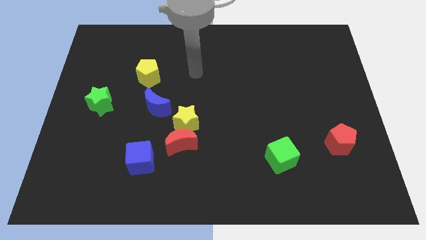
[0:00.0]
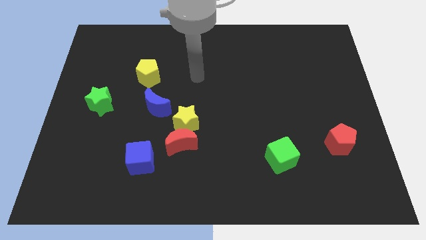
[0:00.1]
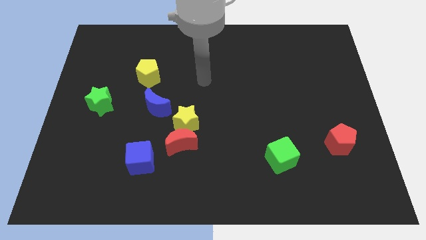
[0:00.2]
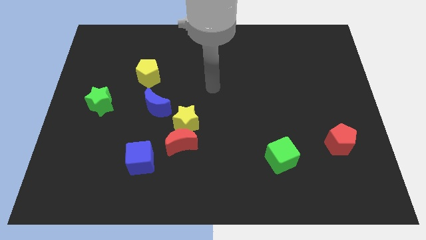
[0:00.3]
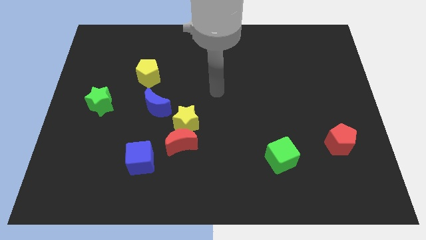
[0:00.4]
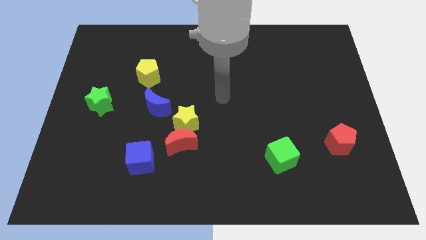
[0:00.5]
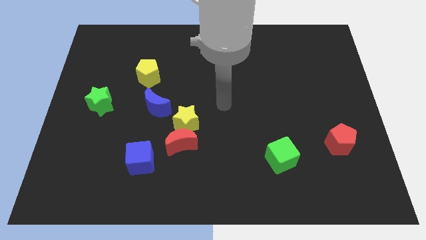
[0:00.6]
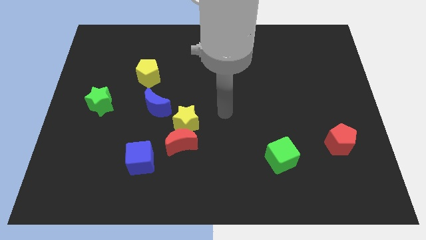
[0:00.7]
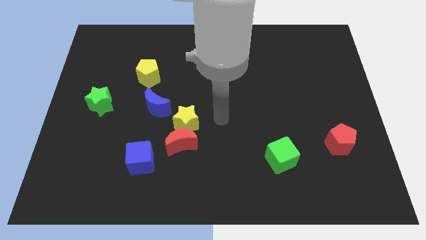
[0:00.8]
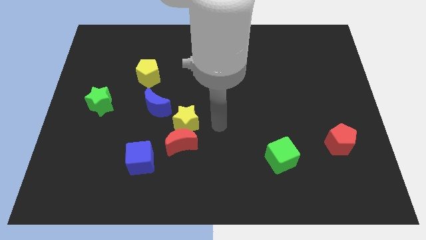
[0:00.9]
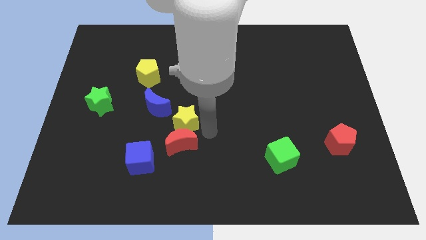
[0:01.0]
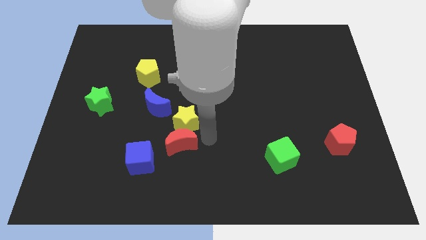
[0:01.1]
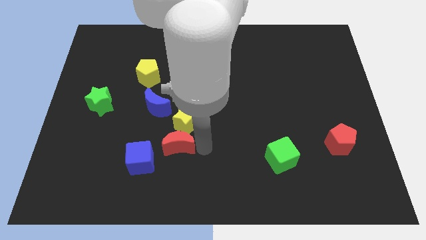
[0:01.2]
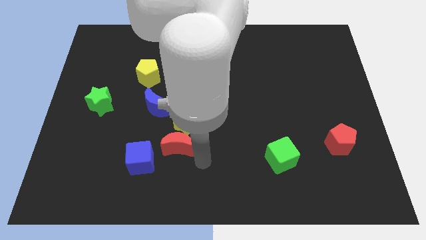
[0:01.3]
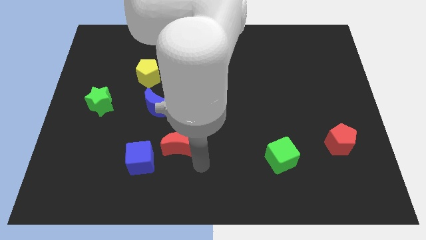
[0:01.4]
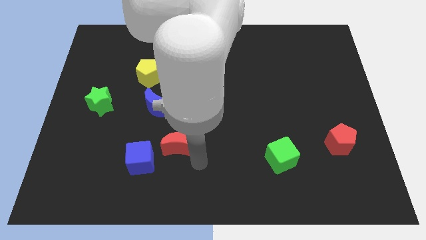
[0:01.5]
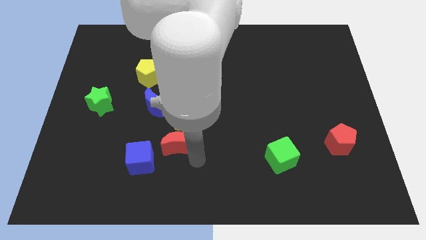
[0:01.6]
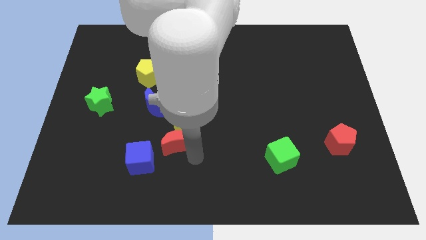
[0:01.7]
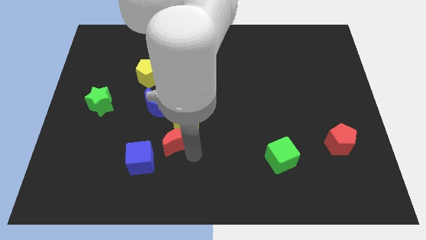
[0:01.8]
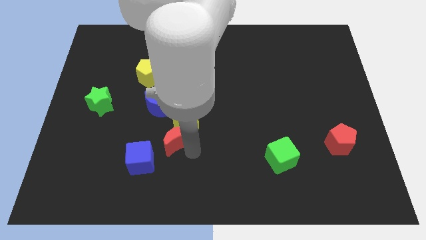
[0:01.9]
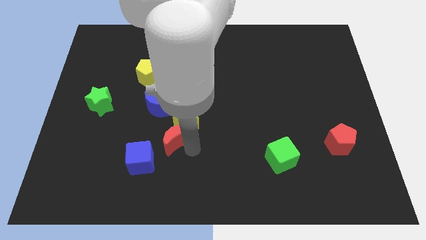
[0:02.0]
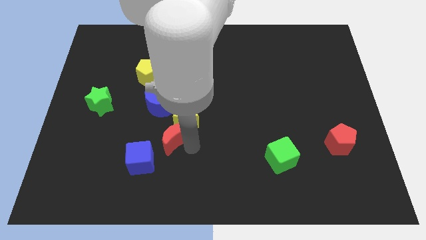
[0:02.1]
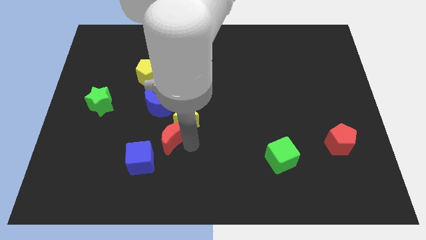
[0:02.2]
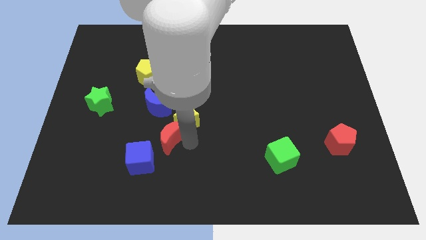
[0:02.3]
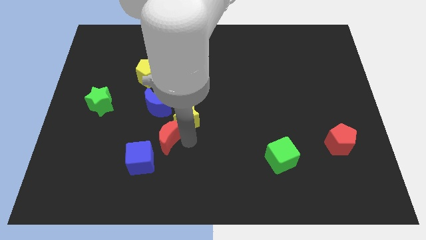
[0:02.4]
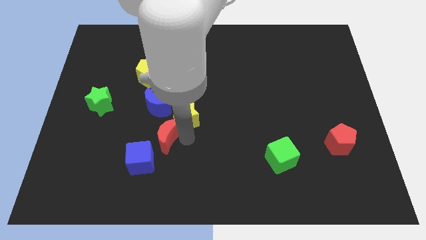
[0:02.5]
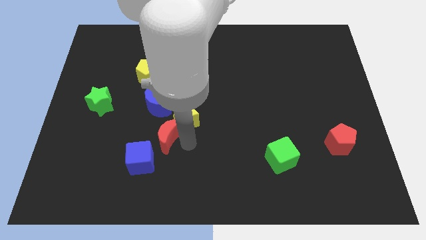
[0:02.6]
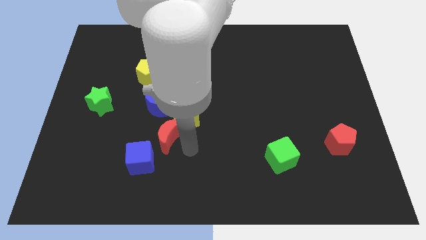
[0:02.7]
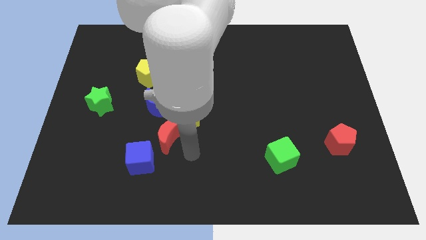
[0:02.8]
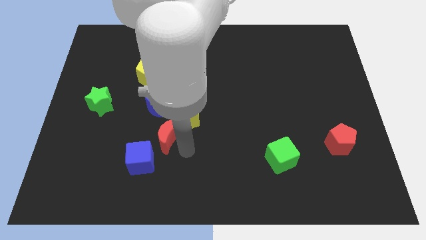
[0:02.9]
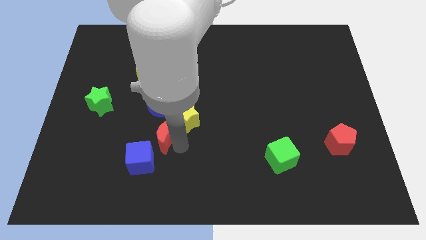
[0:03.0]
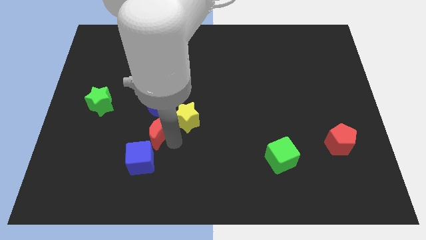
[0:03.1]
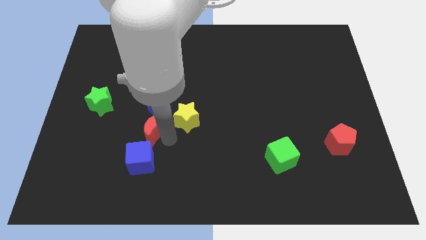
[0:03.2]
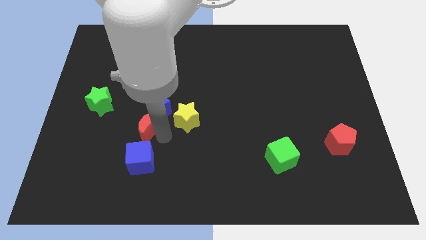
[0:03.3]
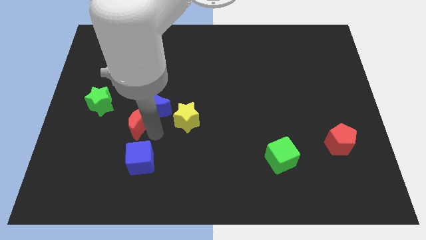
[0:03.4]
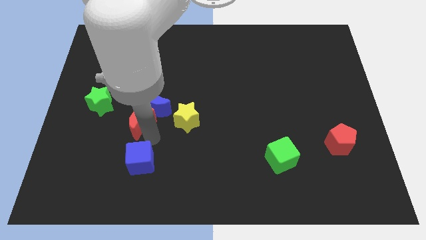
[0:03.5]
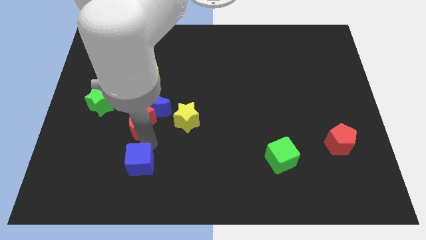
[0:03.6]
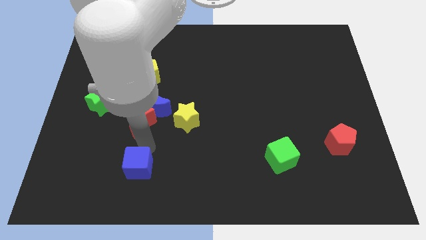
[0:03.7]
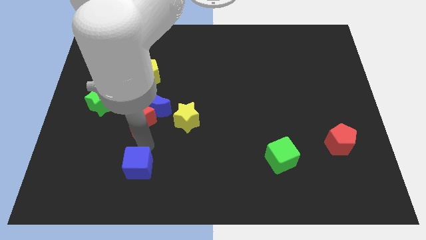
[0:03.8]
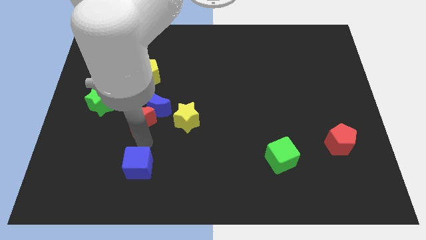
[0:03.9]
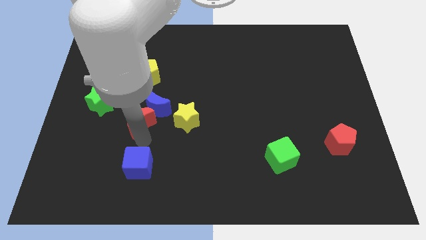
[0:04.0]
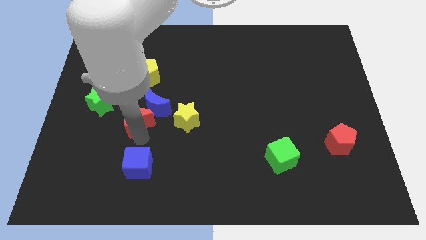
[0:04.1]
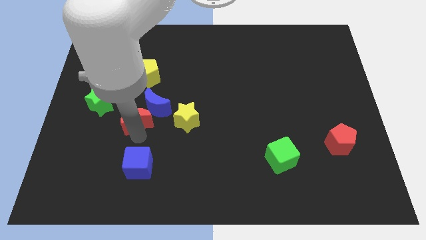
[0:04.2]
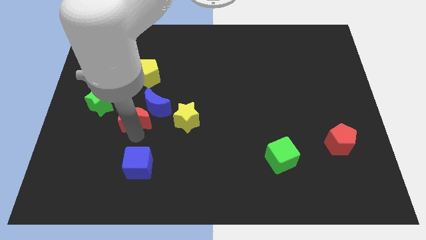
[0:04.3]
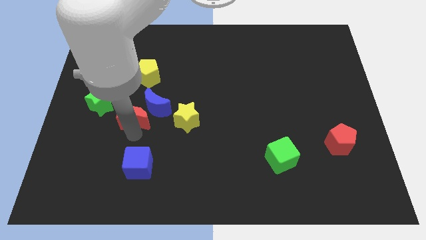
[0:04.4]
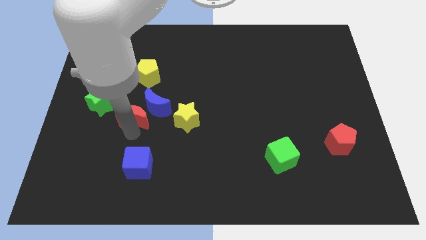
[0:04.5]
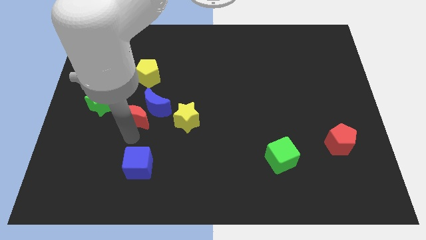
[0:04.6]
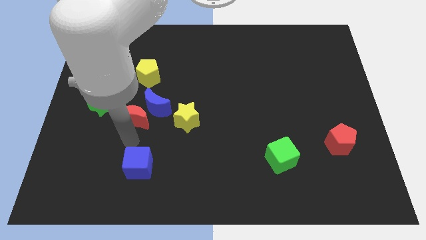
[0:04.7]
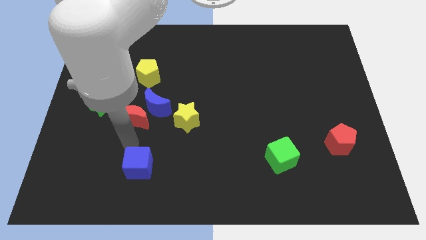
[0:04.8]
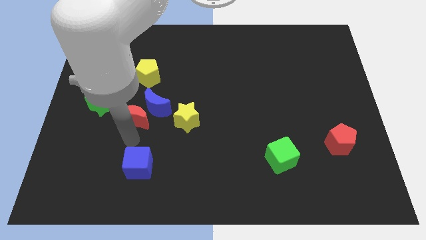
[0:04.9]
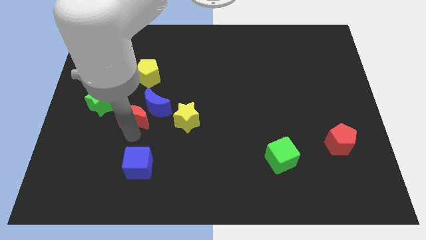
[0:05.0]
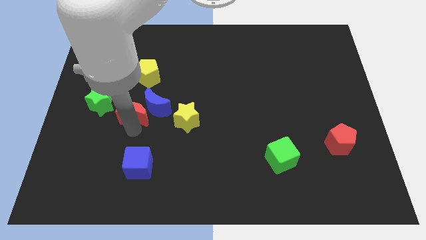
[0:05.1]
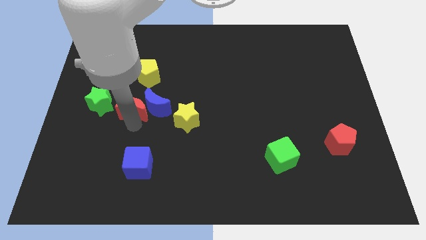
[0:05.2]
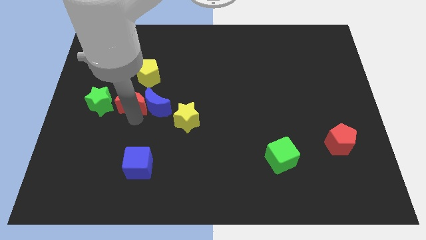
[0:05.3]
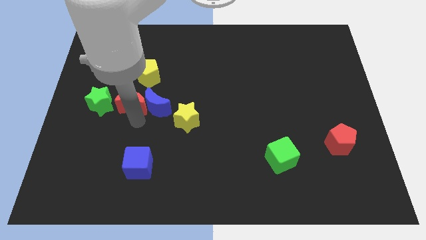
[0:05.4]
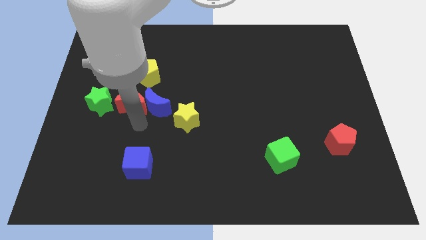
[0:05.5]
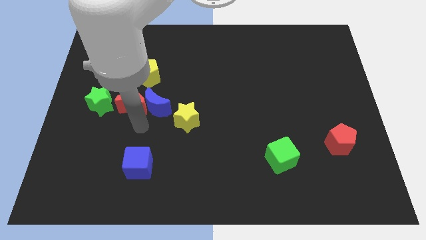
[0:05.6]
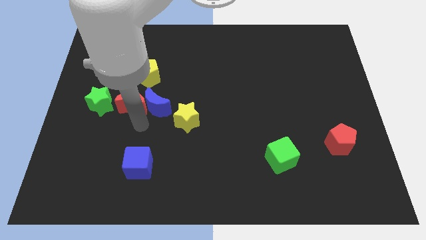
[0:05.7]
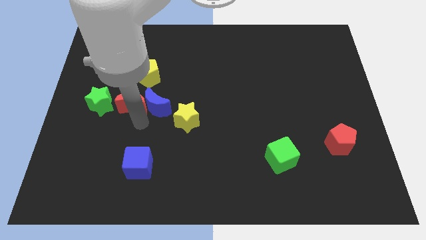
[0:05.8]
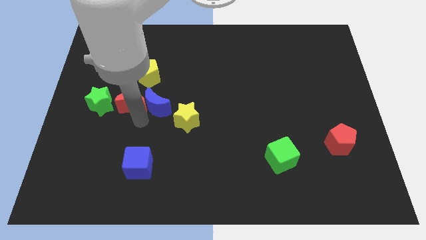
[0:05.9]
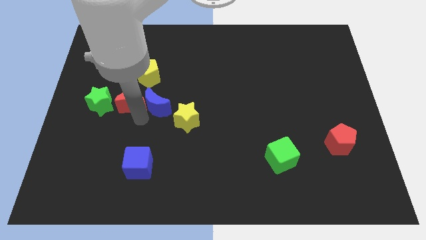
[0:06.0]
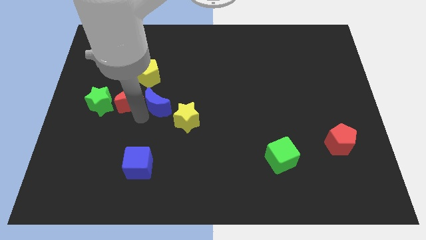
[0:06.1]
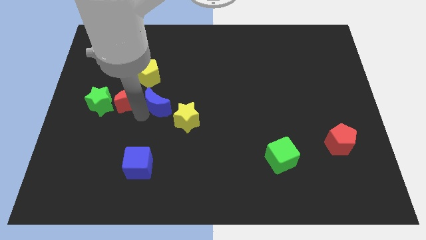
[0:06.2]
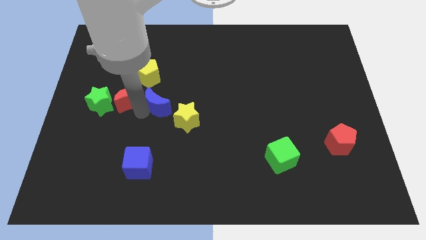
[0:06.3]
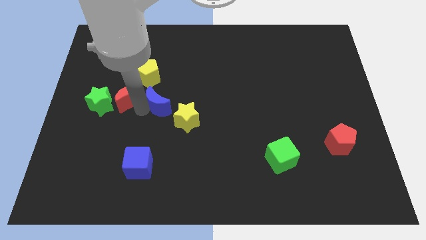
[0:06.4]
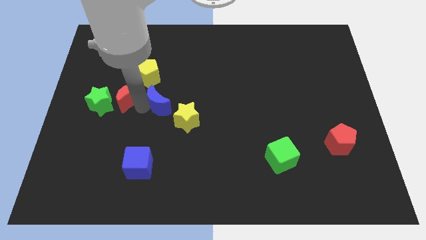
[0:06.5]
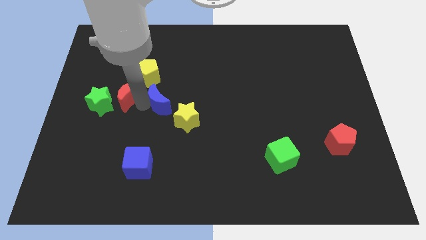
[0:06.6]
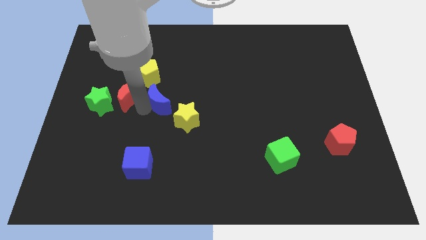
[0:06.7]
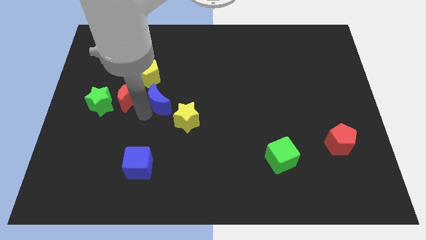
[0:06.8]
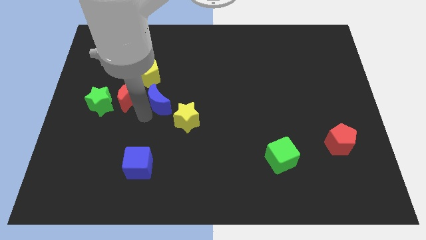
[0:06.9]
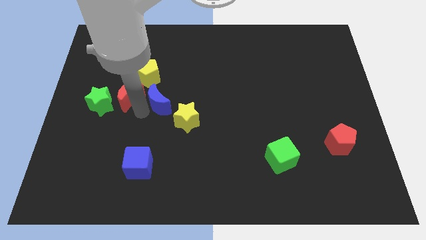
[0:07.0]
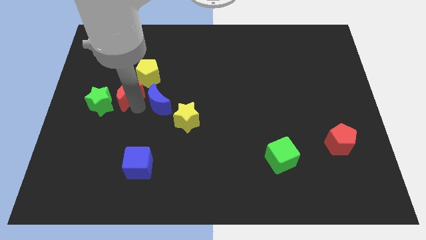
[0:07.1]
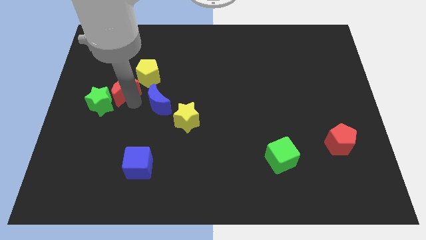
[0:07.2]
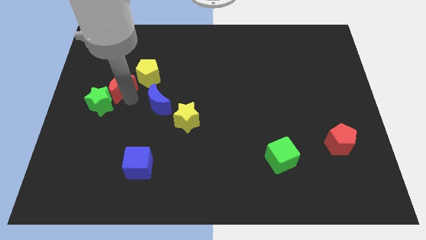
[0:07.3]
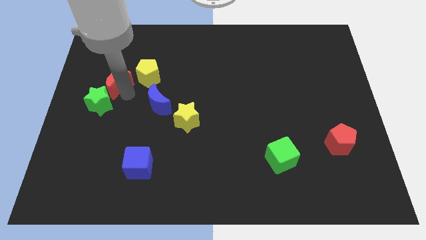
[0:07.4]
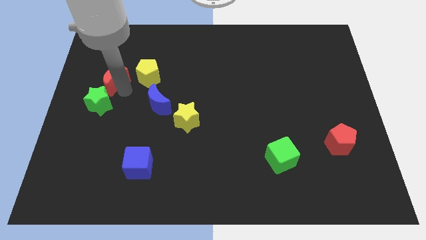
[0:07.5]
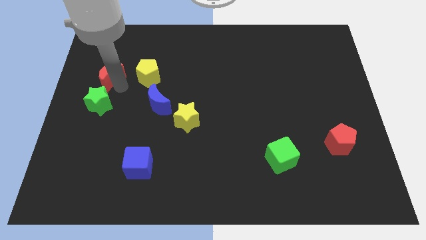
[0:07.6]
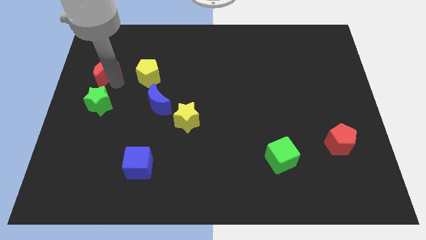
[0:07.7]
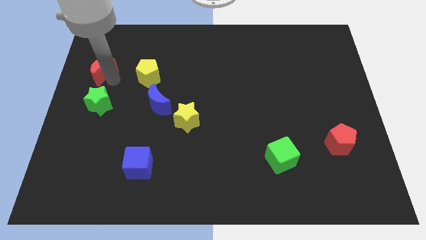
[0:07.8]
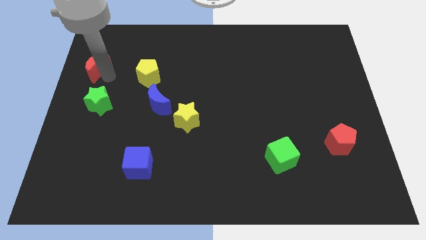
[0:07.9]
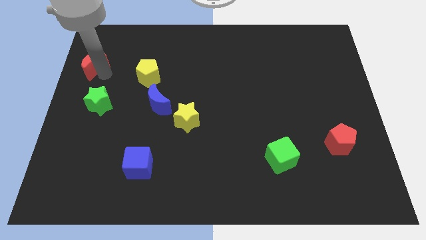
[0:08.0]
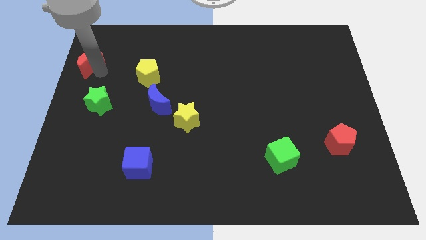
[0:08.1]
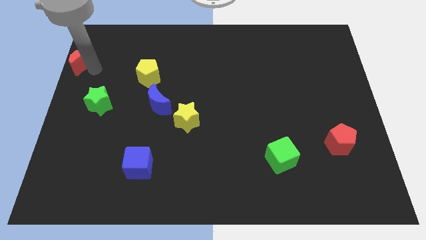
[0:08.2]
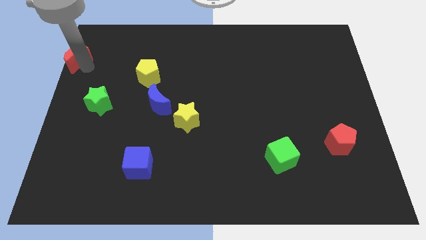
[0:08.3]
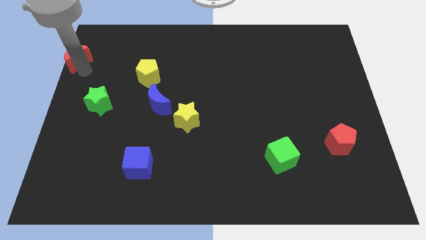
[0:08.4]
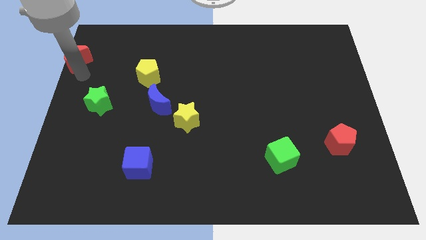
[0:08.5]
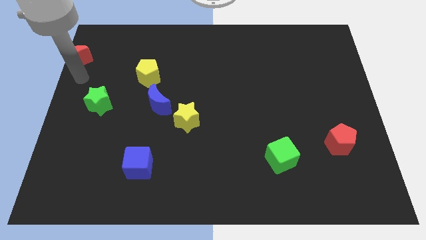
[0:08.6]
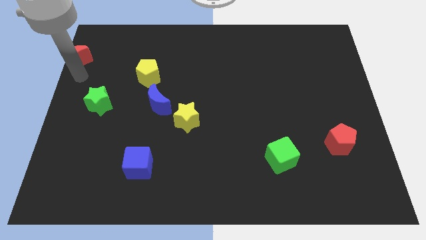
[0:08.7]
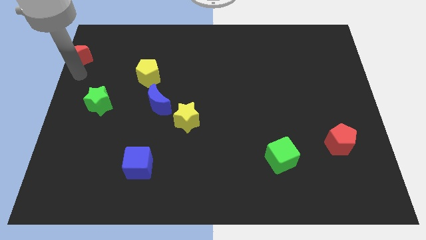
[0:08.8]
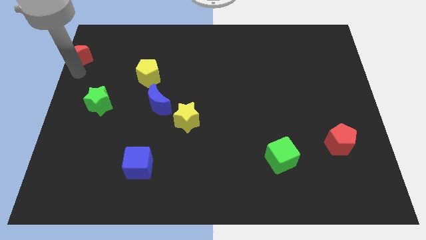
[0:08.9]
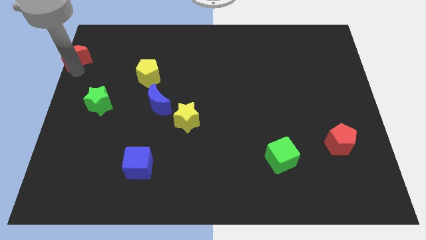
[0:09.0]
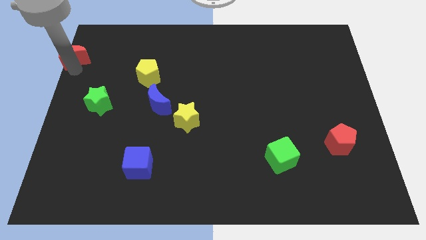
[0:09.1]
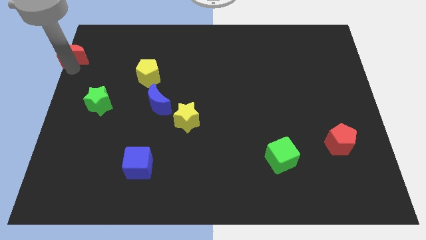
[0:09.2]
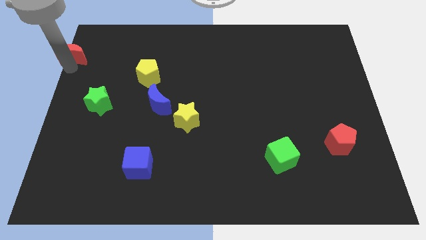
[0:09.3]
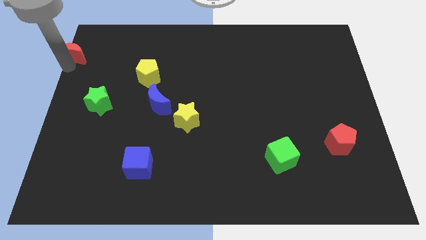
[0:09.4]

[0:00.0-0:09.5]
move the red moon to the top left
